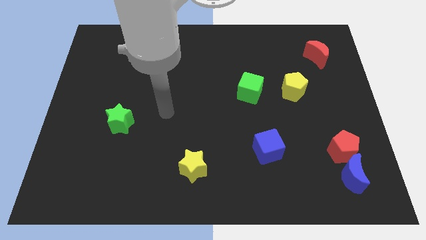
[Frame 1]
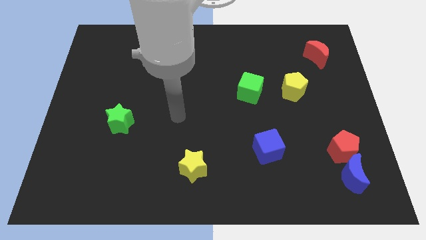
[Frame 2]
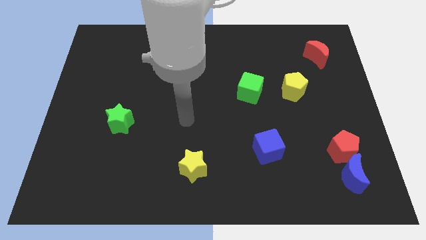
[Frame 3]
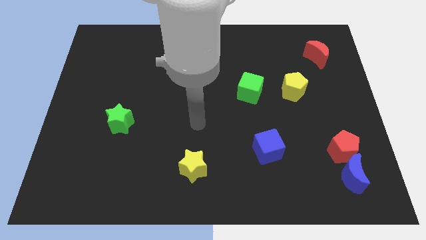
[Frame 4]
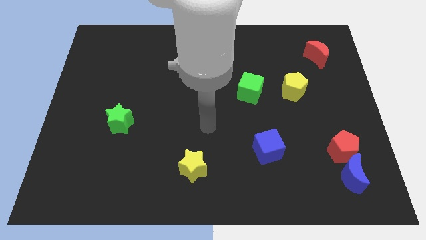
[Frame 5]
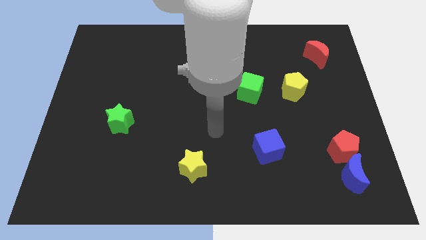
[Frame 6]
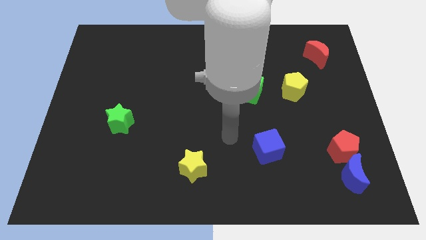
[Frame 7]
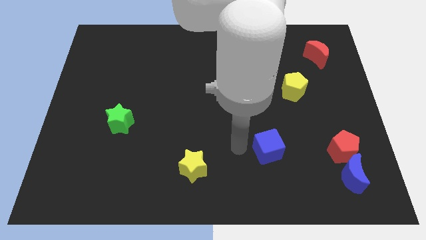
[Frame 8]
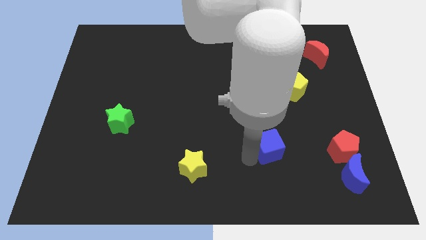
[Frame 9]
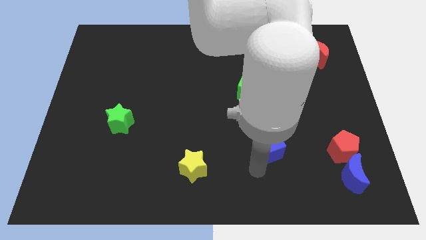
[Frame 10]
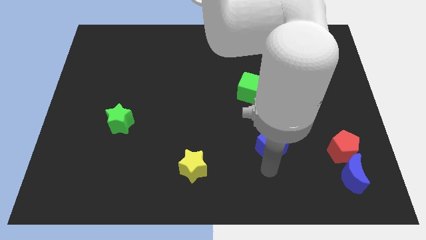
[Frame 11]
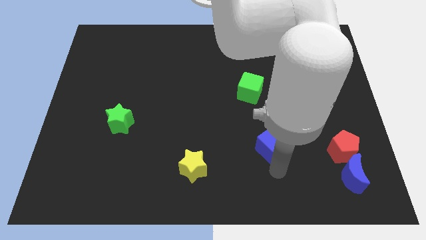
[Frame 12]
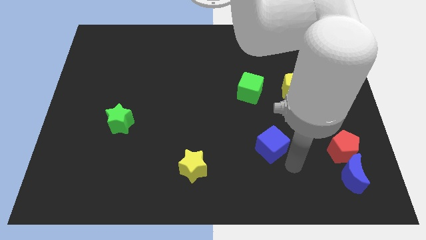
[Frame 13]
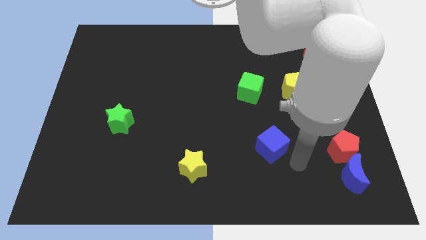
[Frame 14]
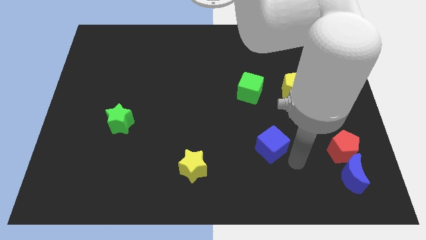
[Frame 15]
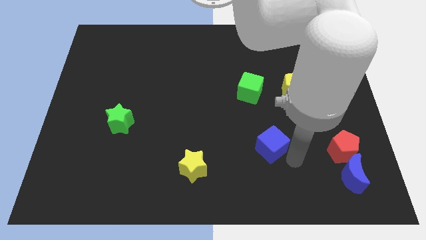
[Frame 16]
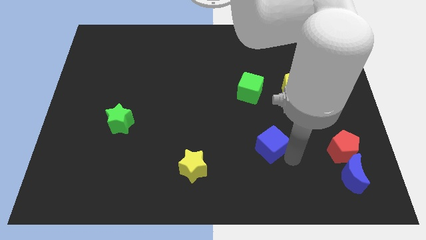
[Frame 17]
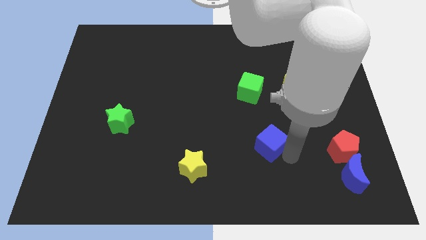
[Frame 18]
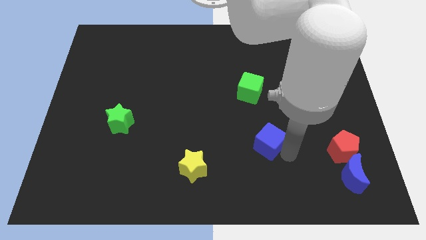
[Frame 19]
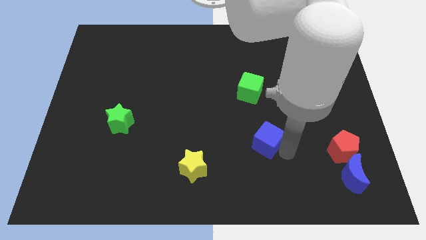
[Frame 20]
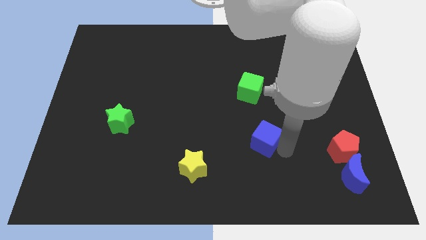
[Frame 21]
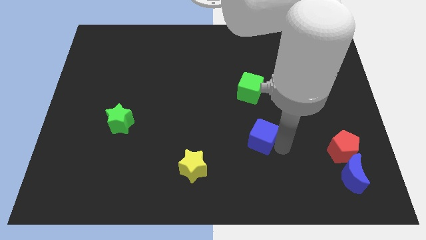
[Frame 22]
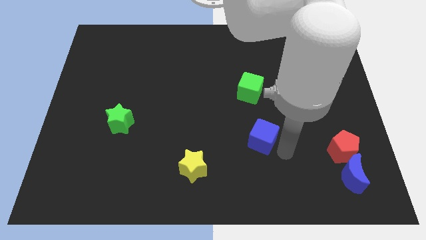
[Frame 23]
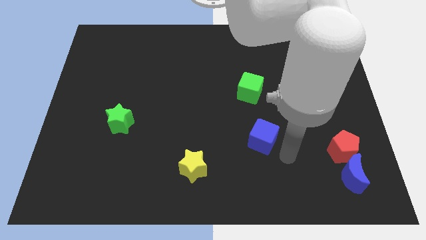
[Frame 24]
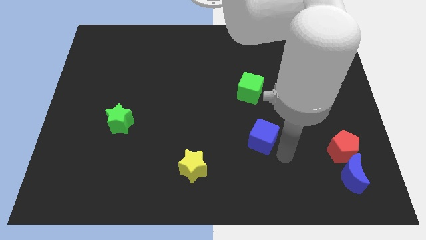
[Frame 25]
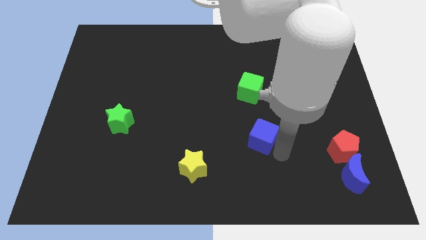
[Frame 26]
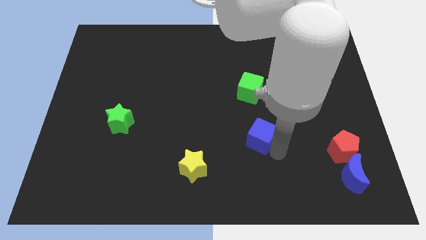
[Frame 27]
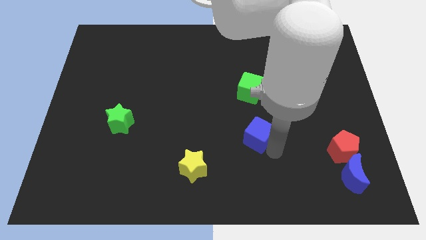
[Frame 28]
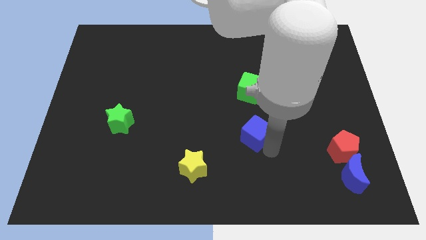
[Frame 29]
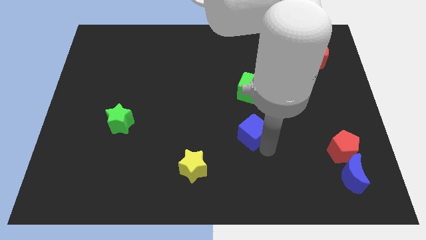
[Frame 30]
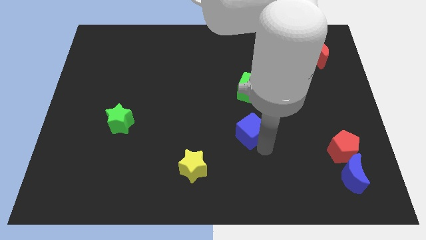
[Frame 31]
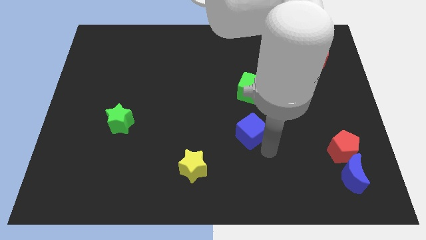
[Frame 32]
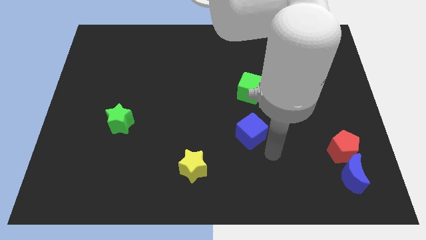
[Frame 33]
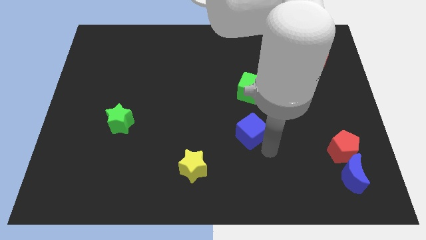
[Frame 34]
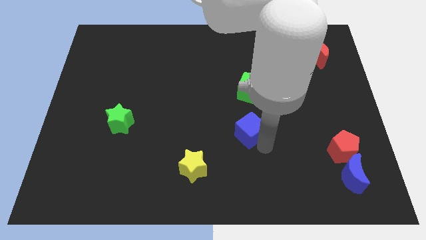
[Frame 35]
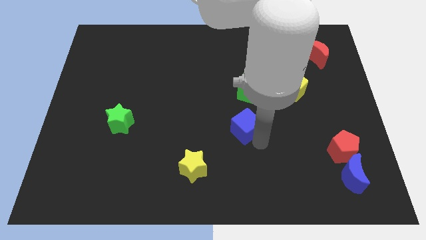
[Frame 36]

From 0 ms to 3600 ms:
move the blue cube upwards and then to the left a bit

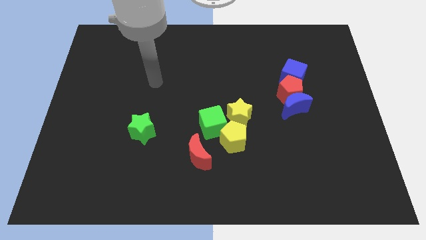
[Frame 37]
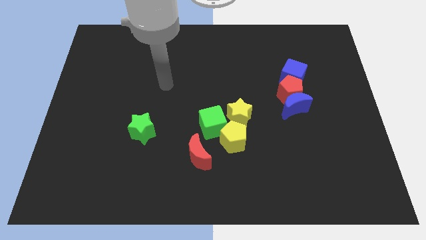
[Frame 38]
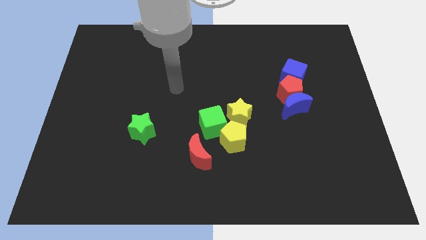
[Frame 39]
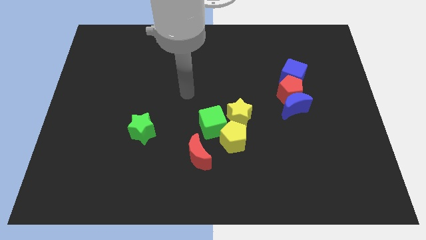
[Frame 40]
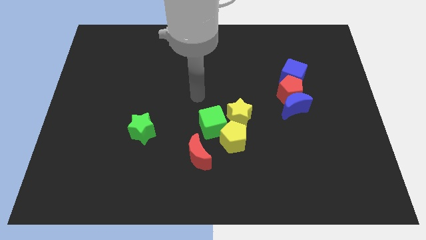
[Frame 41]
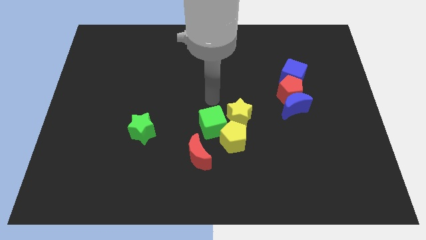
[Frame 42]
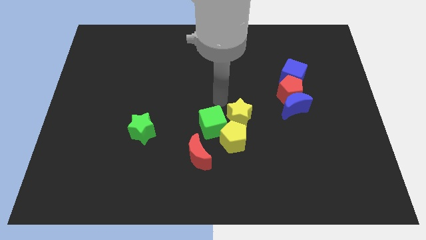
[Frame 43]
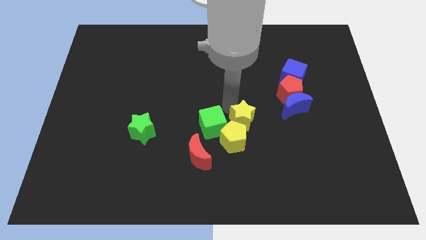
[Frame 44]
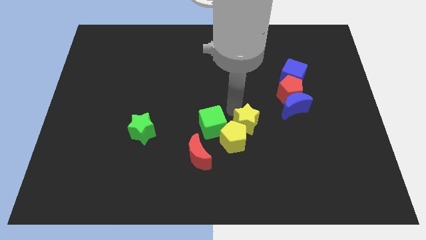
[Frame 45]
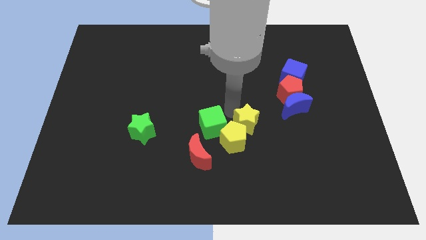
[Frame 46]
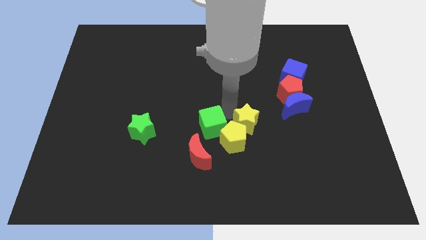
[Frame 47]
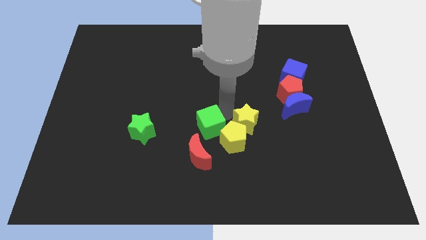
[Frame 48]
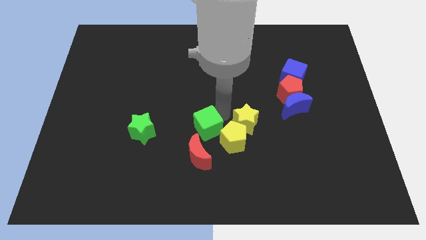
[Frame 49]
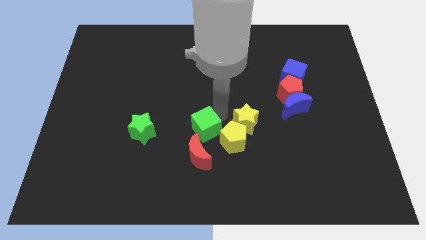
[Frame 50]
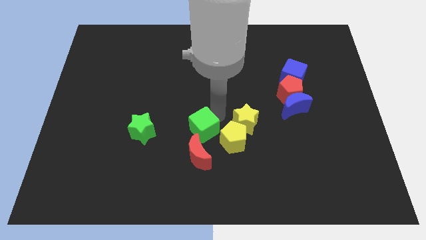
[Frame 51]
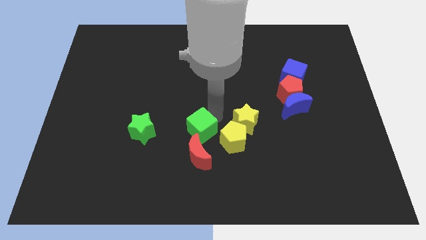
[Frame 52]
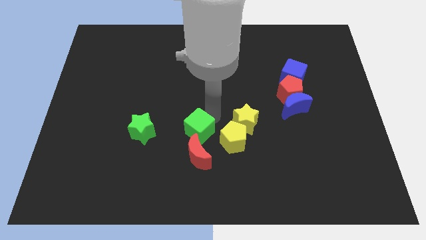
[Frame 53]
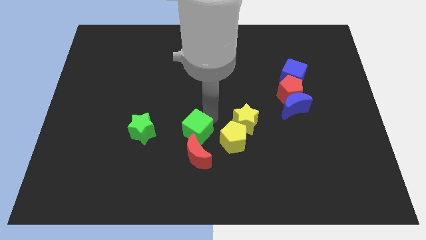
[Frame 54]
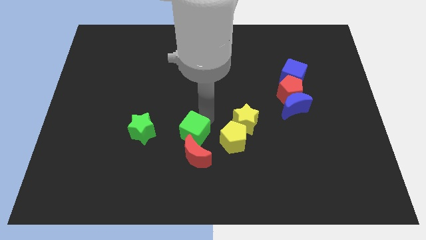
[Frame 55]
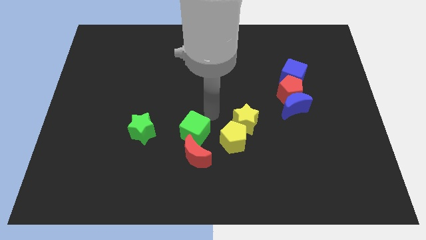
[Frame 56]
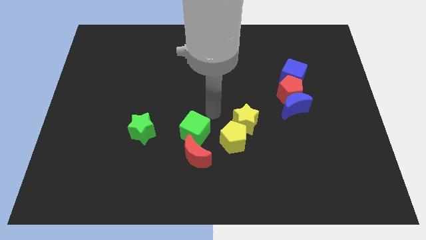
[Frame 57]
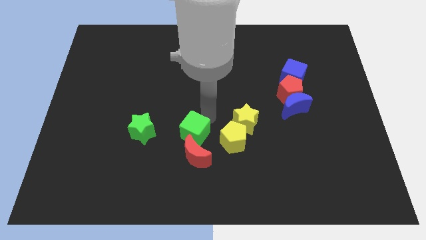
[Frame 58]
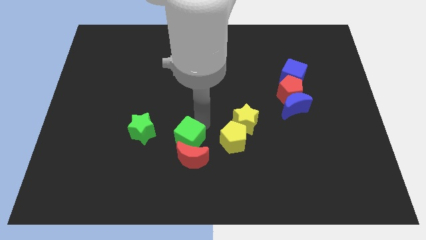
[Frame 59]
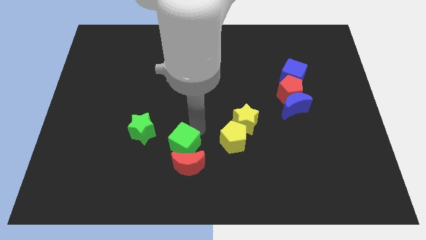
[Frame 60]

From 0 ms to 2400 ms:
move the green cube a little down and left

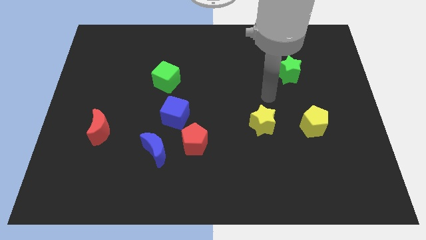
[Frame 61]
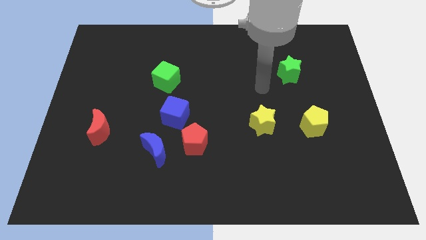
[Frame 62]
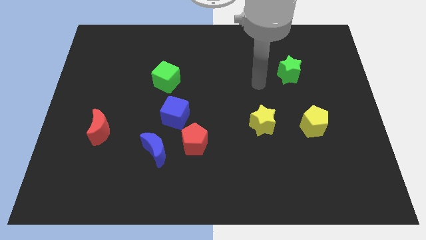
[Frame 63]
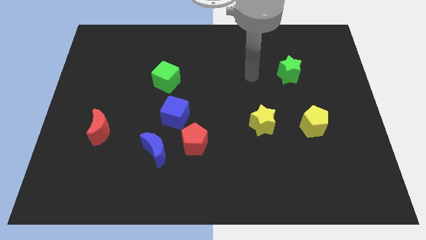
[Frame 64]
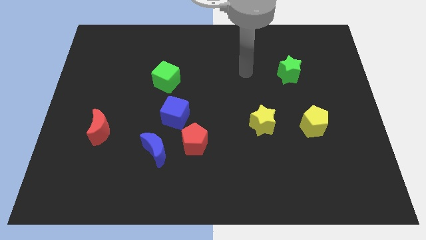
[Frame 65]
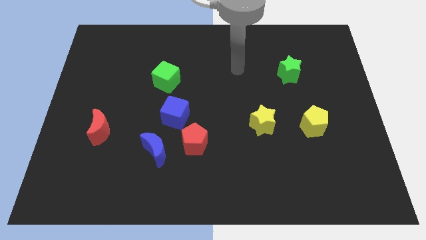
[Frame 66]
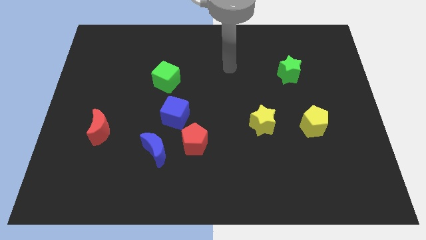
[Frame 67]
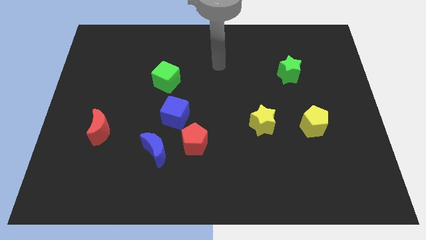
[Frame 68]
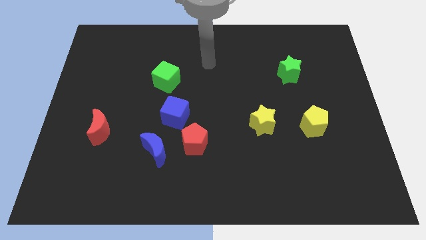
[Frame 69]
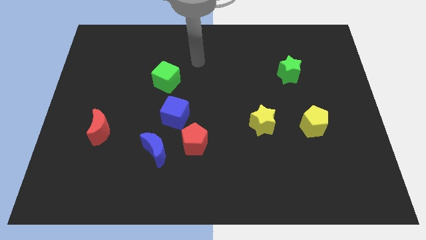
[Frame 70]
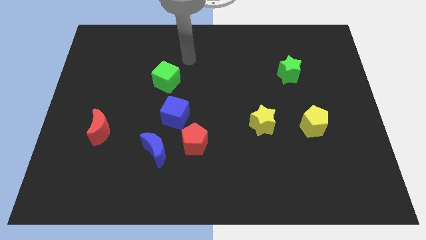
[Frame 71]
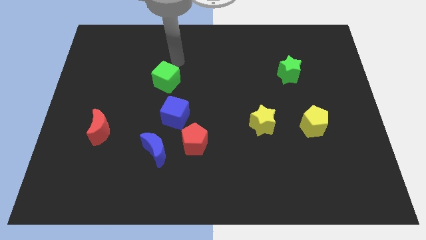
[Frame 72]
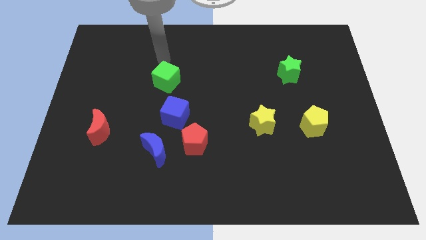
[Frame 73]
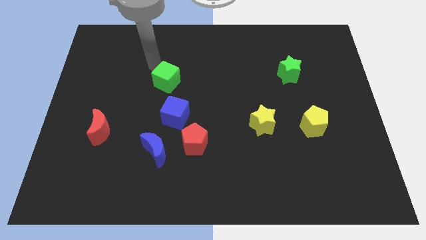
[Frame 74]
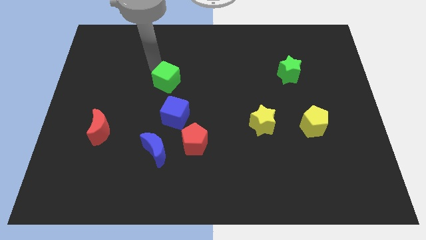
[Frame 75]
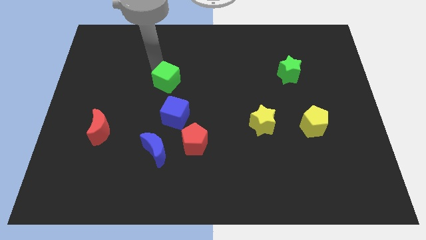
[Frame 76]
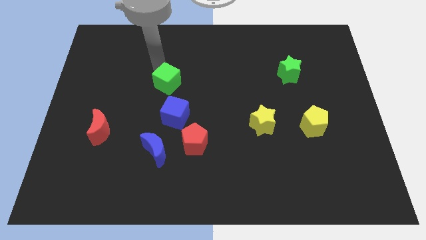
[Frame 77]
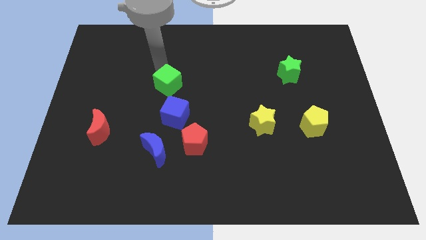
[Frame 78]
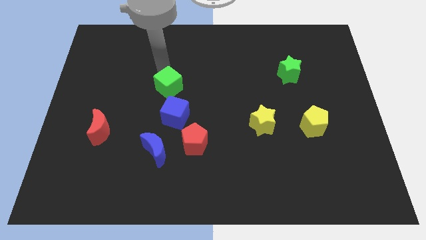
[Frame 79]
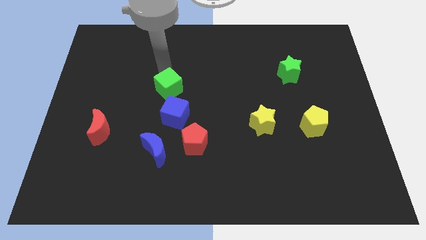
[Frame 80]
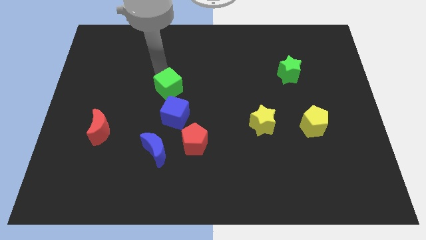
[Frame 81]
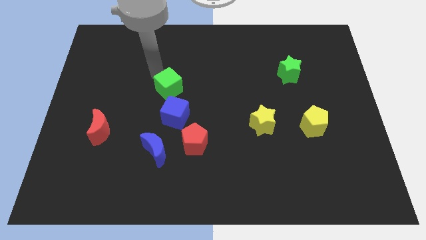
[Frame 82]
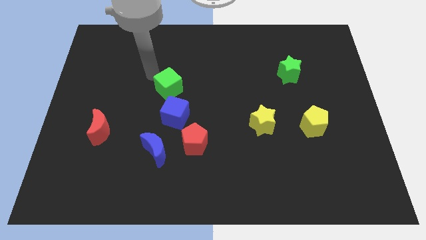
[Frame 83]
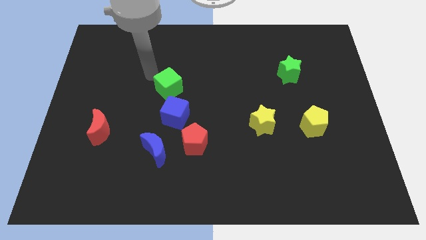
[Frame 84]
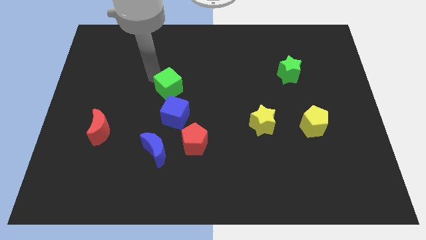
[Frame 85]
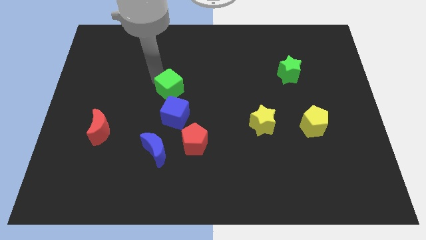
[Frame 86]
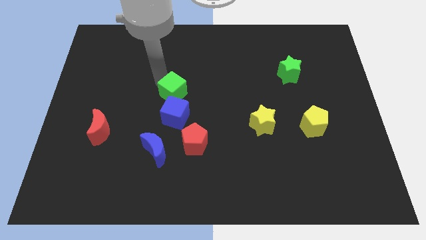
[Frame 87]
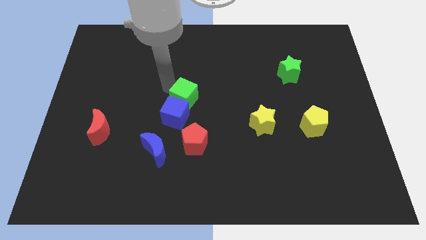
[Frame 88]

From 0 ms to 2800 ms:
slide the green cube a bit diagonally down and right
